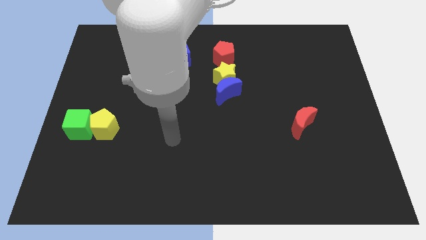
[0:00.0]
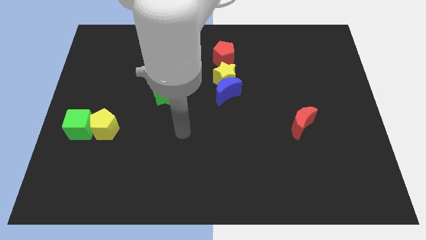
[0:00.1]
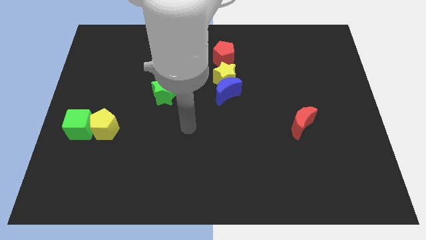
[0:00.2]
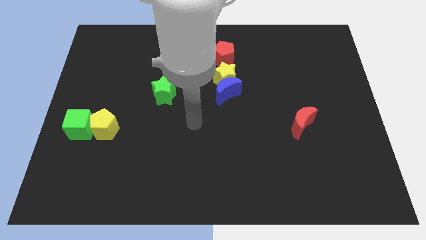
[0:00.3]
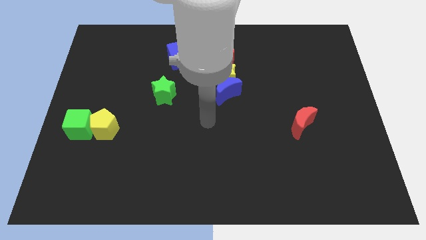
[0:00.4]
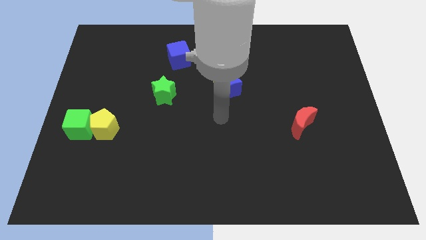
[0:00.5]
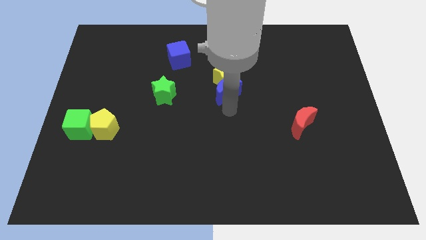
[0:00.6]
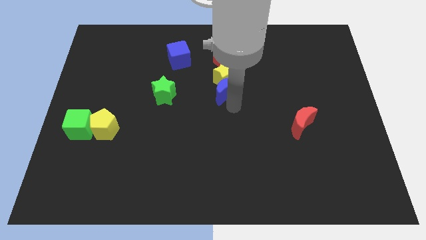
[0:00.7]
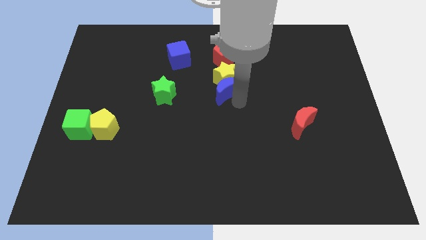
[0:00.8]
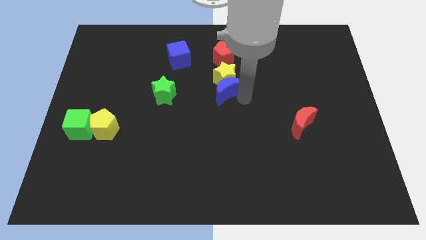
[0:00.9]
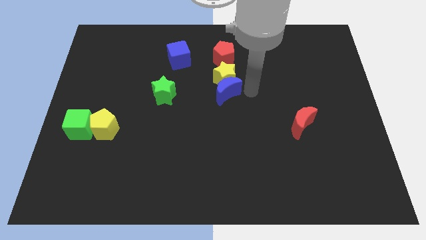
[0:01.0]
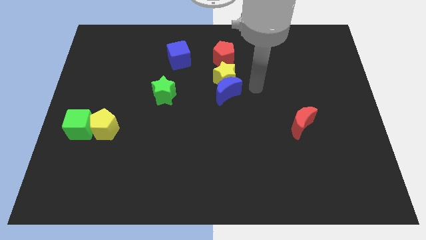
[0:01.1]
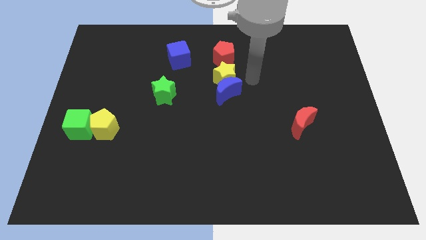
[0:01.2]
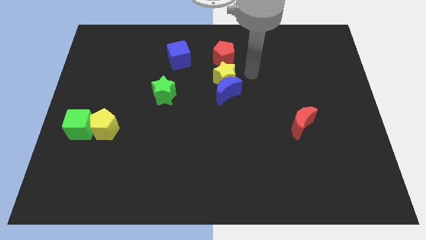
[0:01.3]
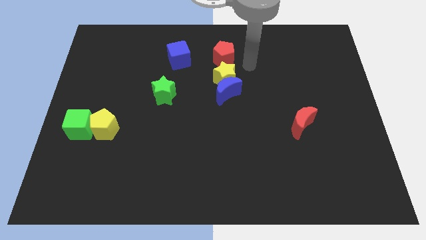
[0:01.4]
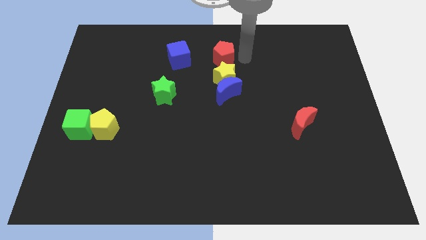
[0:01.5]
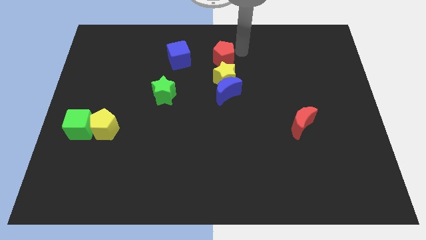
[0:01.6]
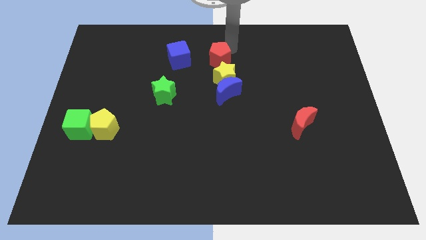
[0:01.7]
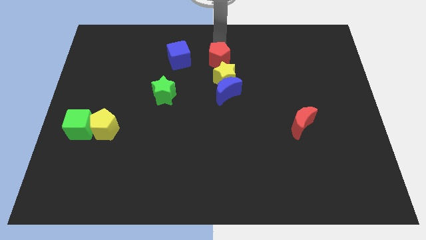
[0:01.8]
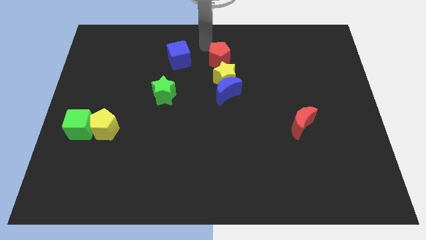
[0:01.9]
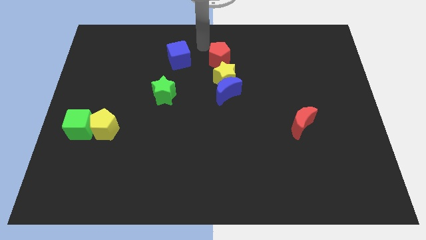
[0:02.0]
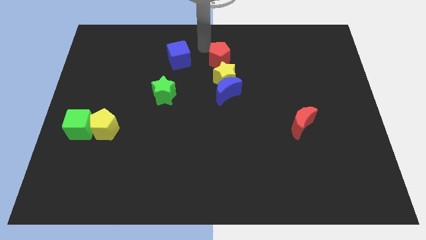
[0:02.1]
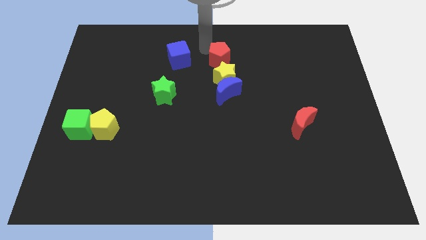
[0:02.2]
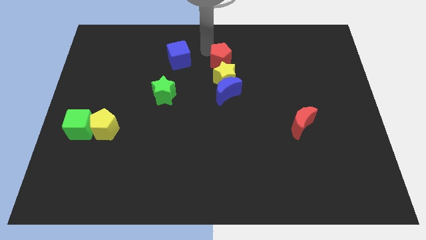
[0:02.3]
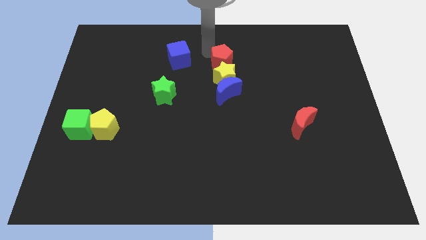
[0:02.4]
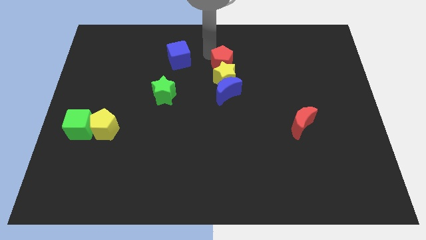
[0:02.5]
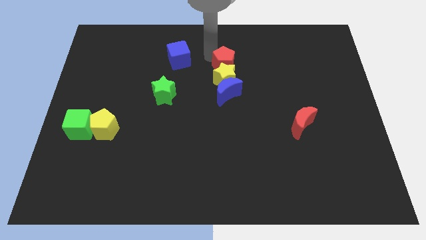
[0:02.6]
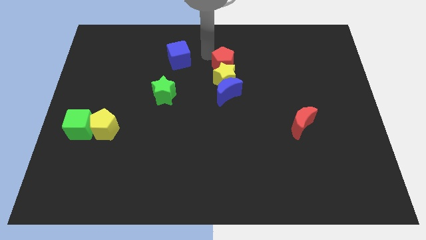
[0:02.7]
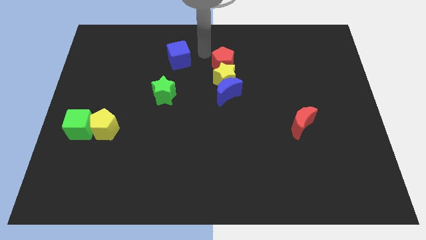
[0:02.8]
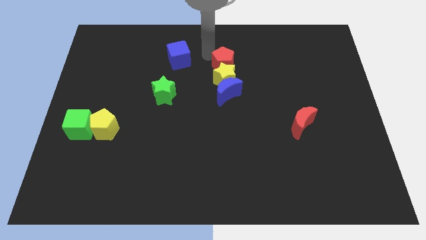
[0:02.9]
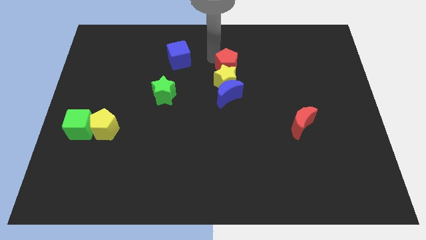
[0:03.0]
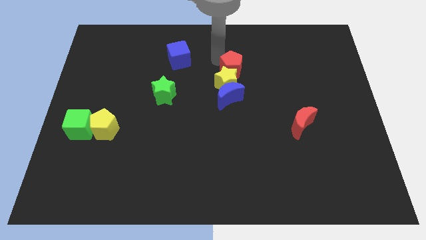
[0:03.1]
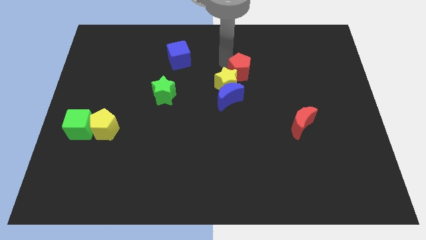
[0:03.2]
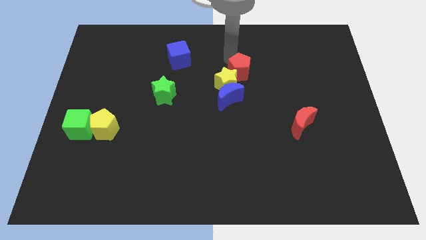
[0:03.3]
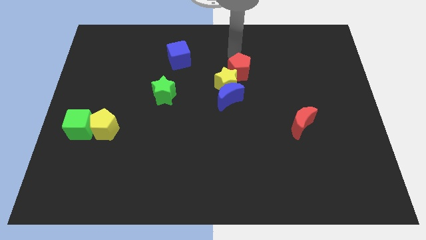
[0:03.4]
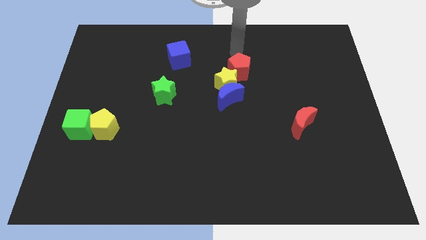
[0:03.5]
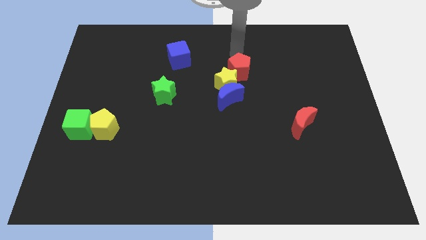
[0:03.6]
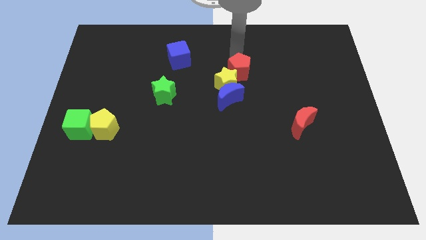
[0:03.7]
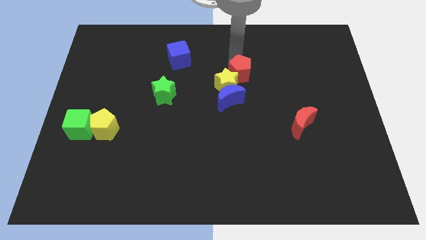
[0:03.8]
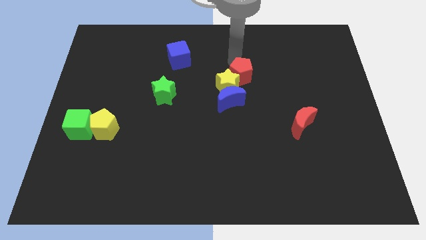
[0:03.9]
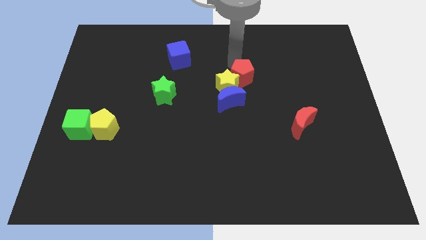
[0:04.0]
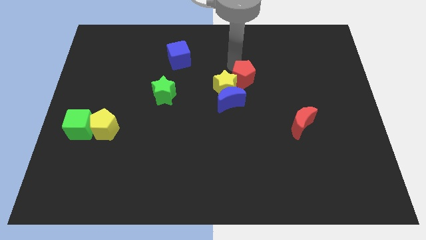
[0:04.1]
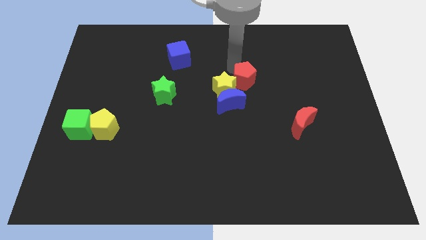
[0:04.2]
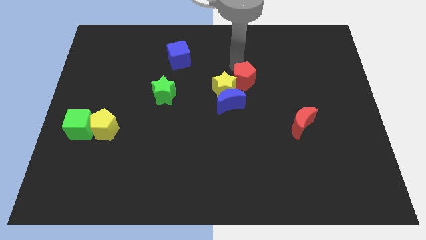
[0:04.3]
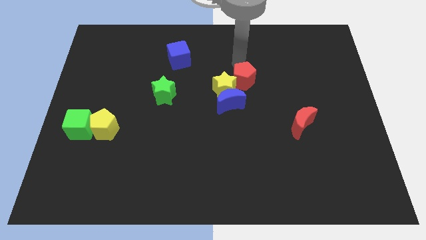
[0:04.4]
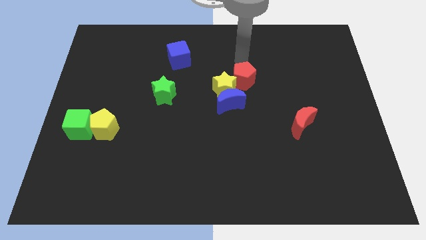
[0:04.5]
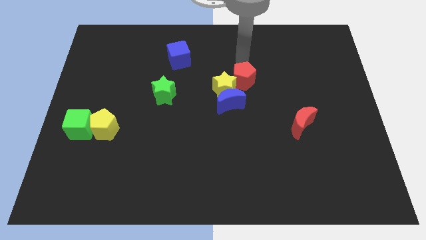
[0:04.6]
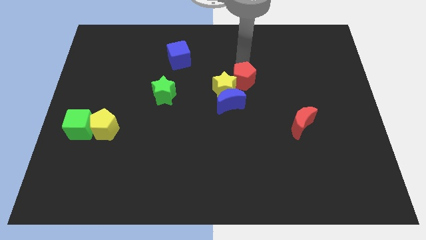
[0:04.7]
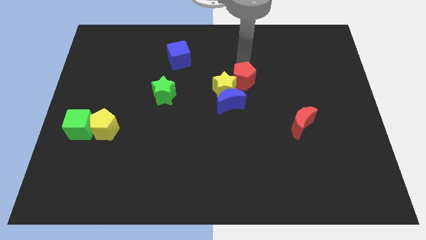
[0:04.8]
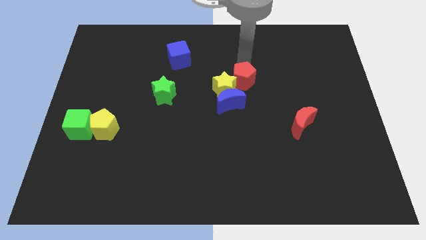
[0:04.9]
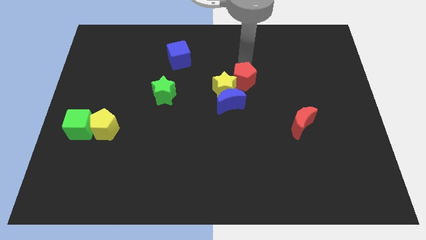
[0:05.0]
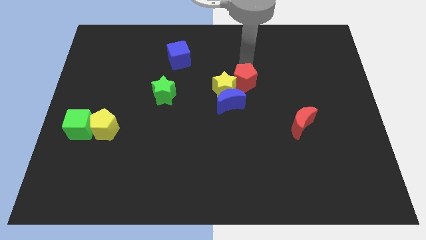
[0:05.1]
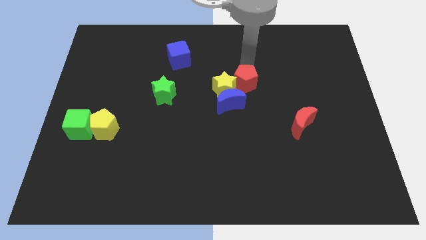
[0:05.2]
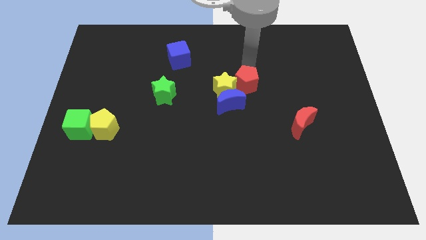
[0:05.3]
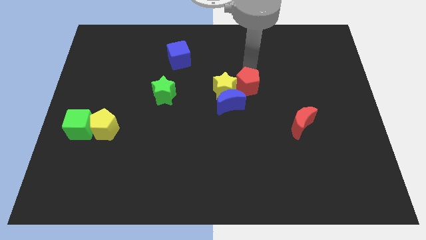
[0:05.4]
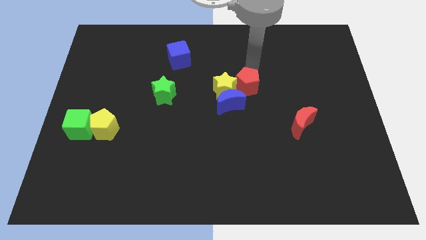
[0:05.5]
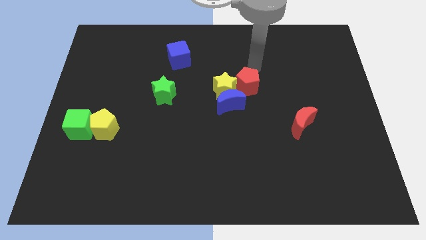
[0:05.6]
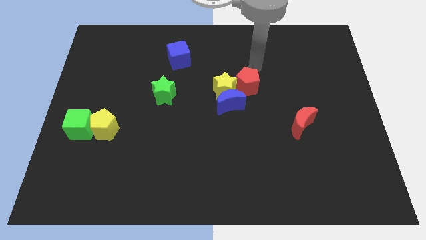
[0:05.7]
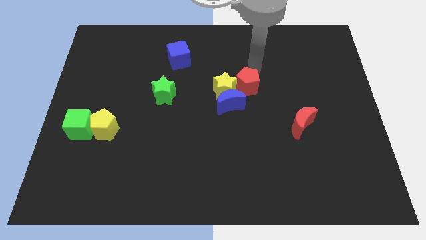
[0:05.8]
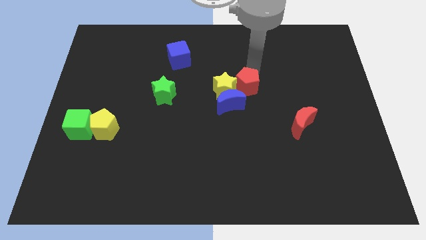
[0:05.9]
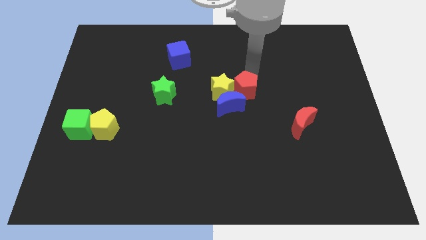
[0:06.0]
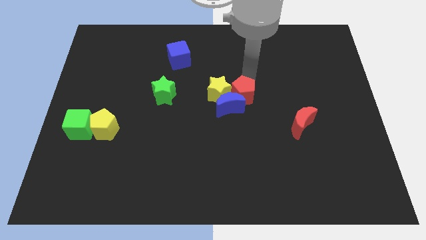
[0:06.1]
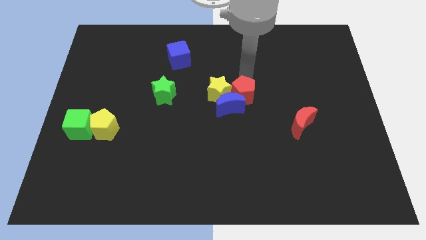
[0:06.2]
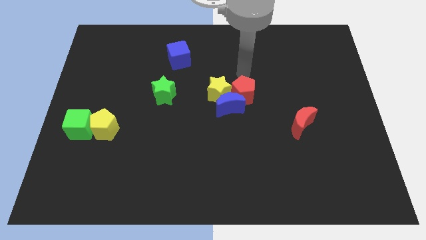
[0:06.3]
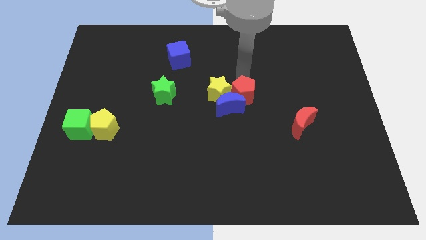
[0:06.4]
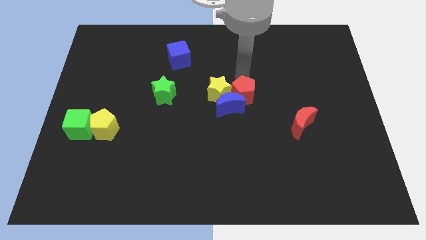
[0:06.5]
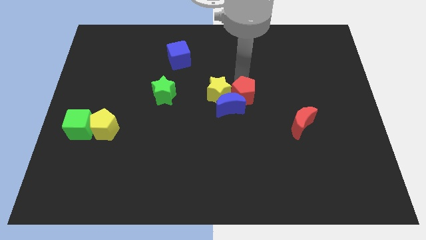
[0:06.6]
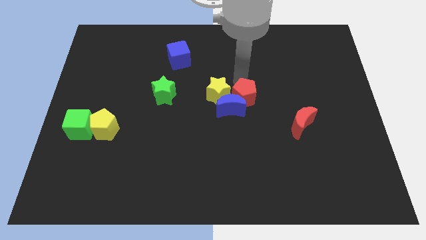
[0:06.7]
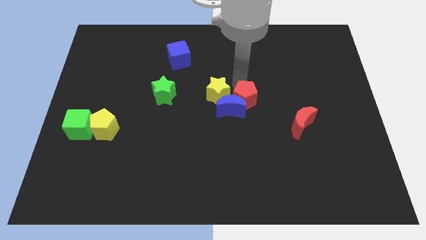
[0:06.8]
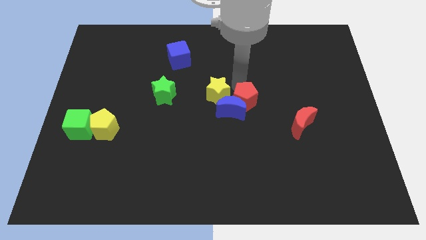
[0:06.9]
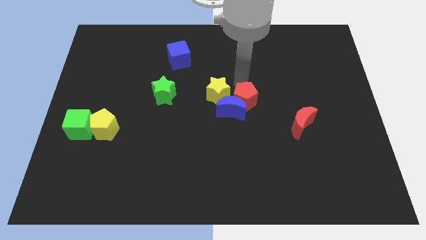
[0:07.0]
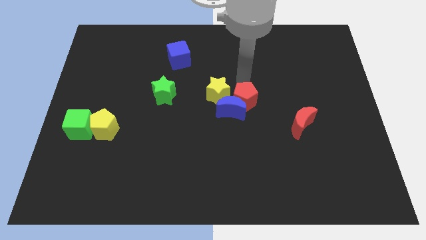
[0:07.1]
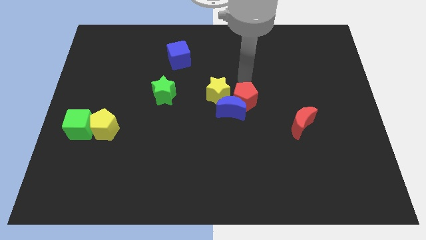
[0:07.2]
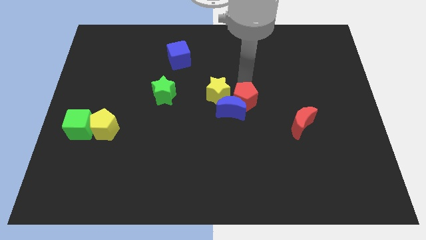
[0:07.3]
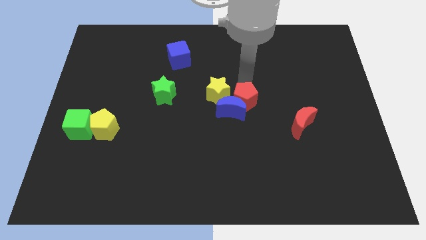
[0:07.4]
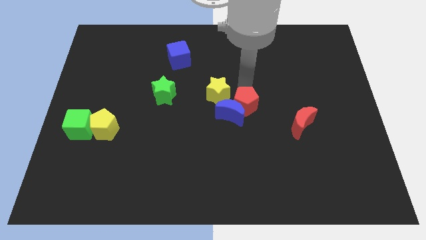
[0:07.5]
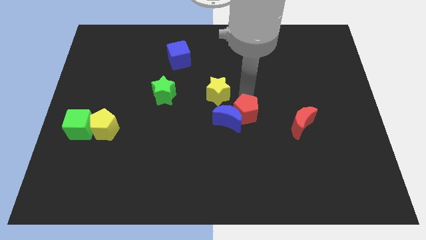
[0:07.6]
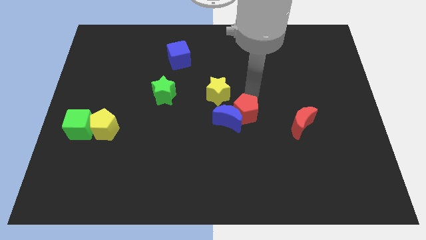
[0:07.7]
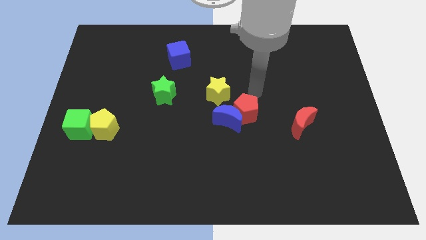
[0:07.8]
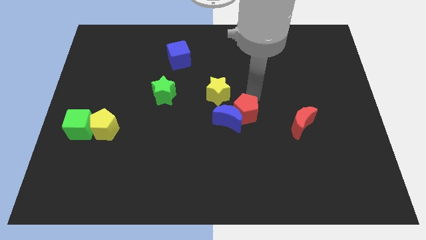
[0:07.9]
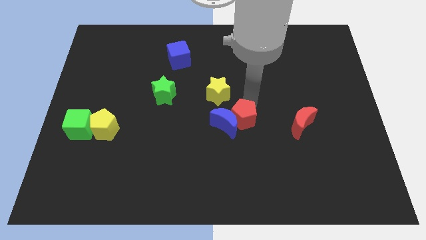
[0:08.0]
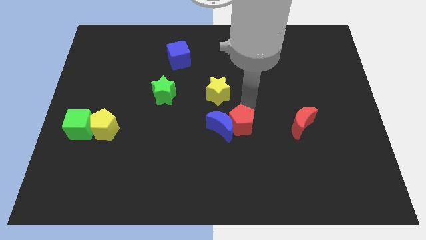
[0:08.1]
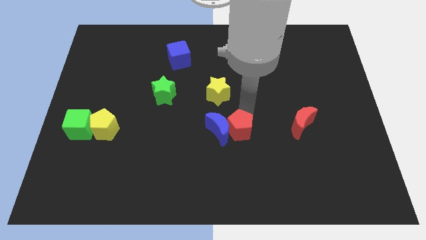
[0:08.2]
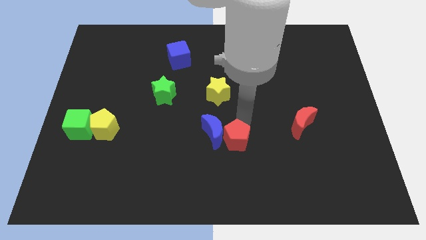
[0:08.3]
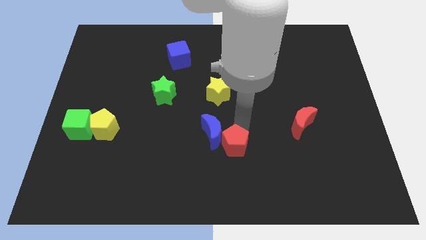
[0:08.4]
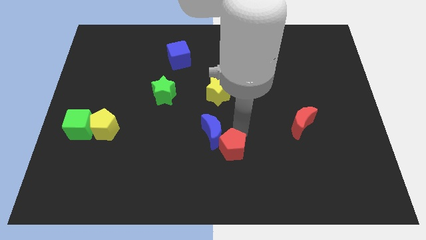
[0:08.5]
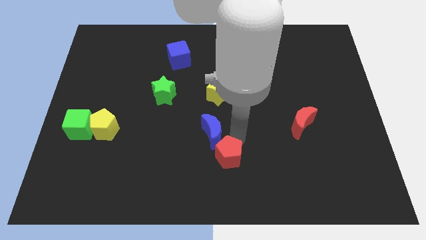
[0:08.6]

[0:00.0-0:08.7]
slide the red pentagon to the bottom
